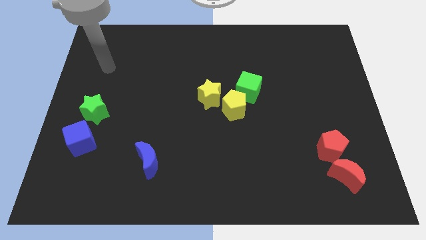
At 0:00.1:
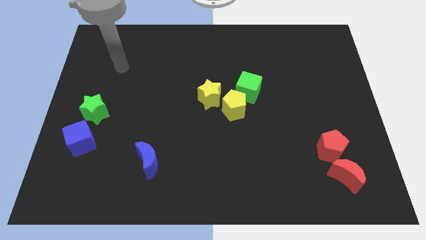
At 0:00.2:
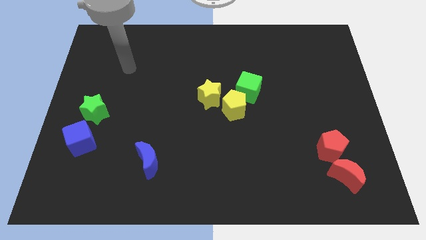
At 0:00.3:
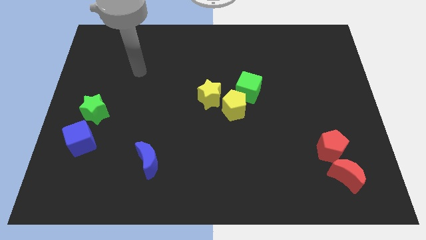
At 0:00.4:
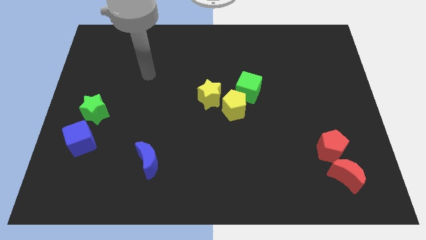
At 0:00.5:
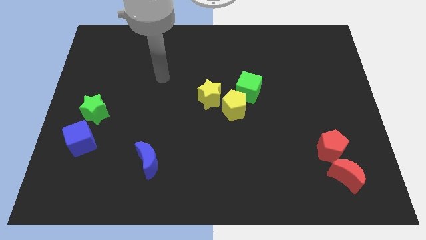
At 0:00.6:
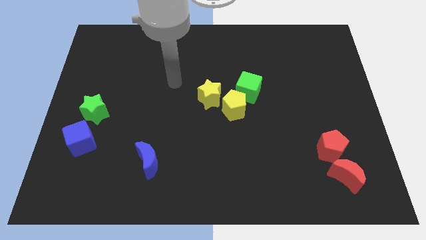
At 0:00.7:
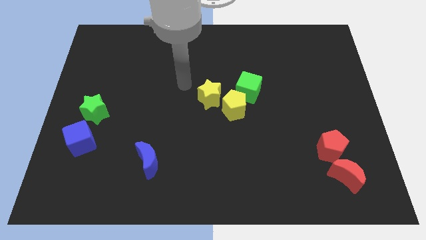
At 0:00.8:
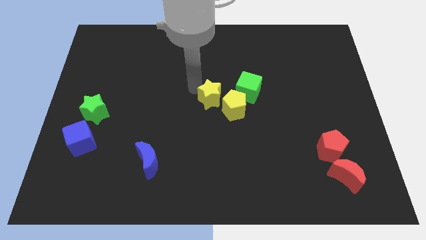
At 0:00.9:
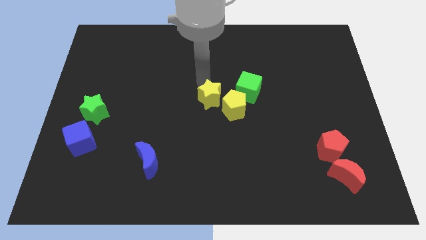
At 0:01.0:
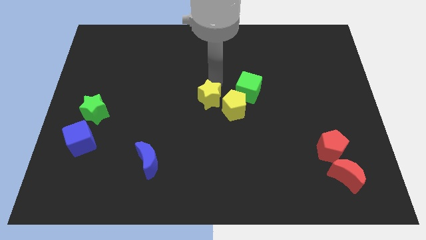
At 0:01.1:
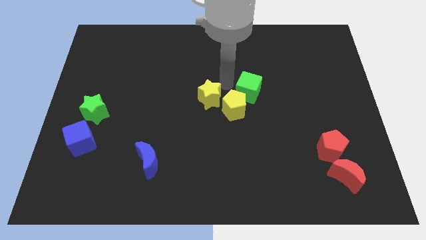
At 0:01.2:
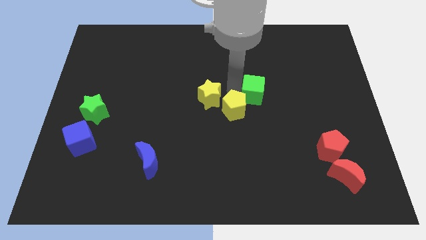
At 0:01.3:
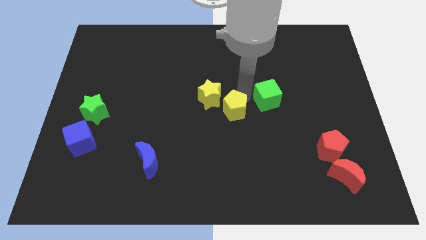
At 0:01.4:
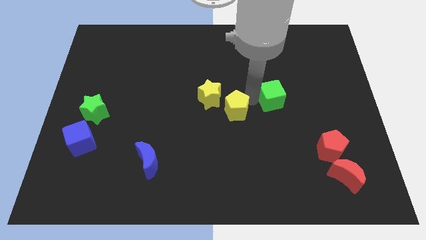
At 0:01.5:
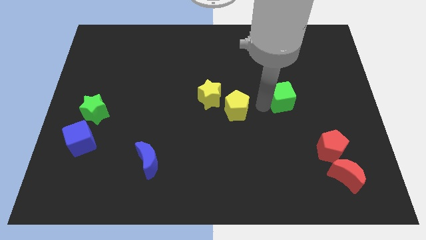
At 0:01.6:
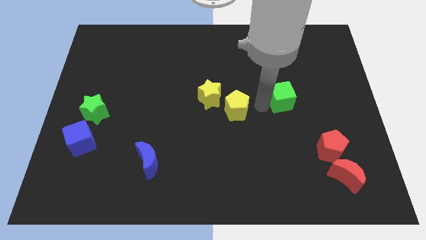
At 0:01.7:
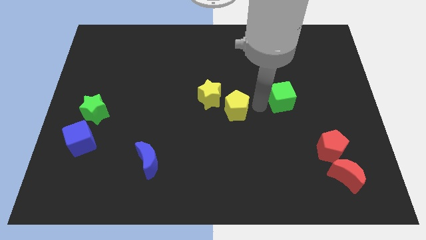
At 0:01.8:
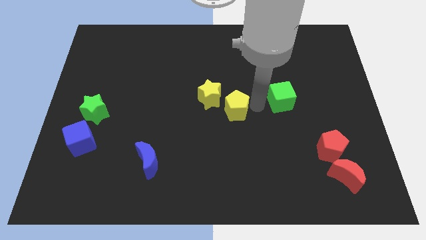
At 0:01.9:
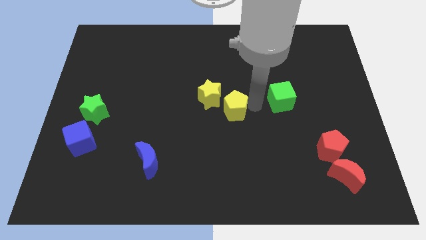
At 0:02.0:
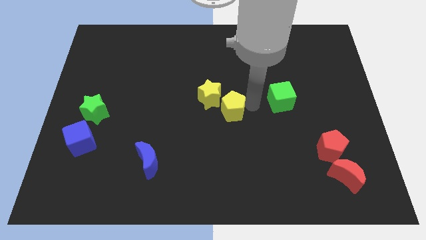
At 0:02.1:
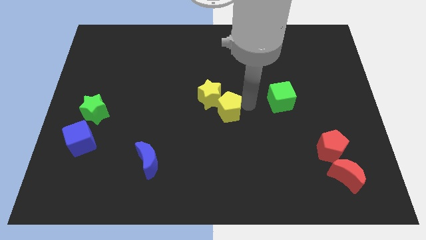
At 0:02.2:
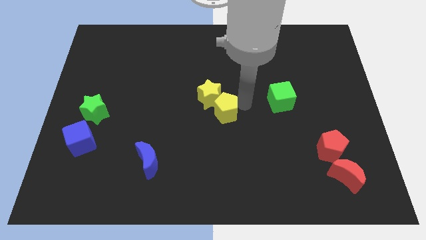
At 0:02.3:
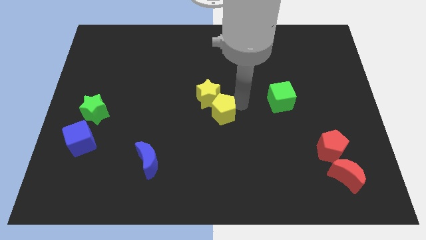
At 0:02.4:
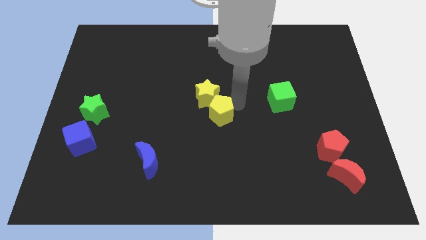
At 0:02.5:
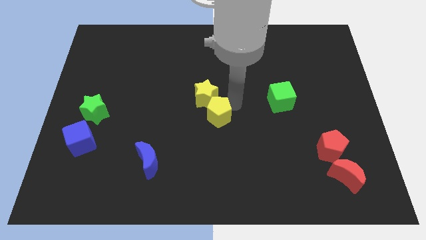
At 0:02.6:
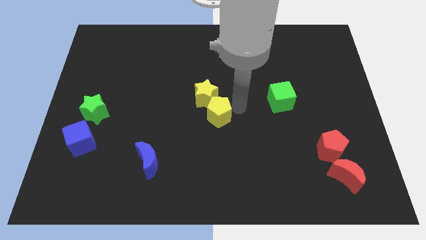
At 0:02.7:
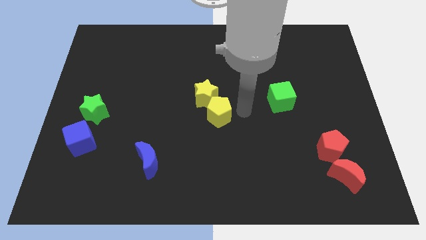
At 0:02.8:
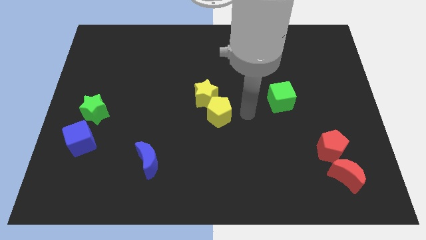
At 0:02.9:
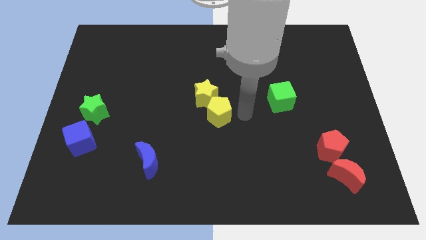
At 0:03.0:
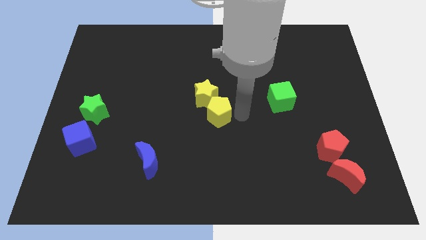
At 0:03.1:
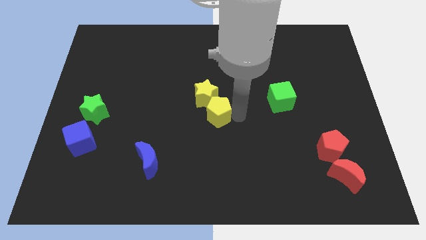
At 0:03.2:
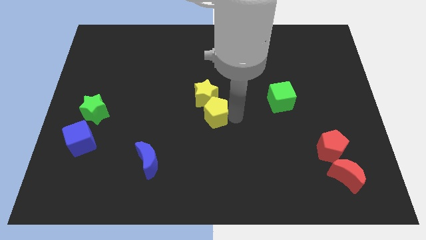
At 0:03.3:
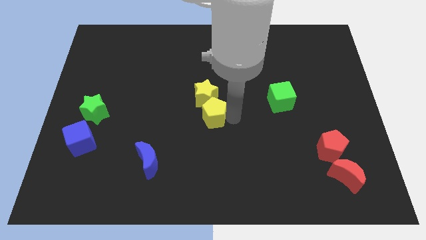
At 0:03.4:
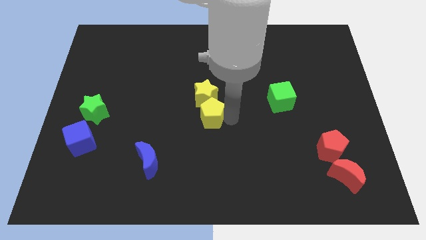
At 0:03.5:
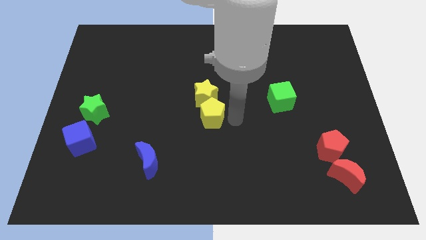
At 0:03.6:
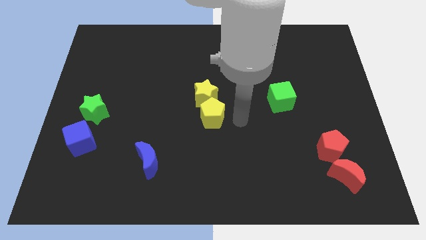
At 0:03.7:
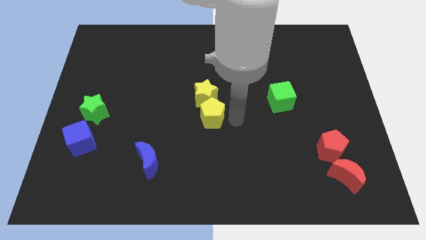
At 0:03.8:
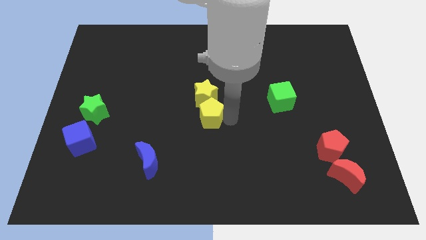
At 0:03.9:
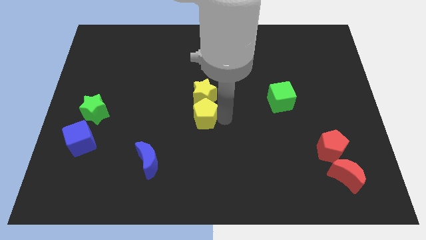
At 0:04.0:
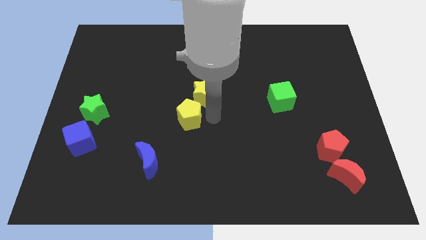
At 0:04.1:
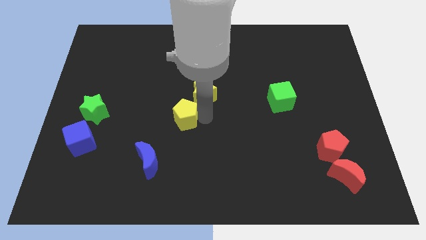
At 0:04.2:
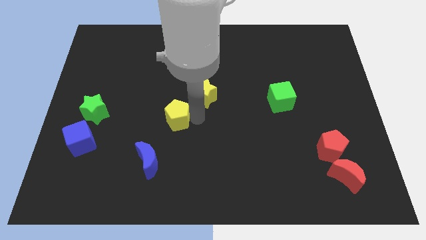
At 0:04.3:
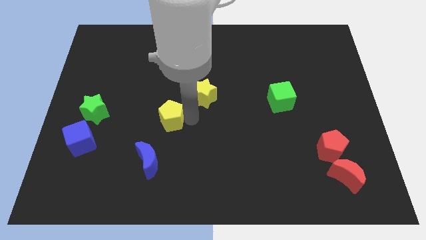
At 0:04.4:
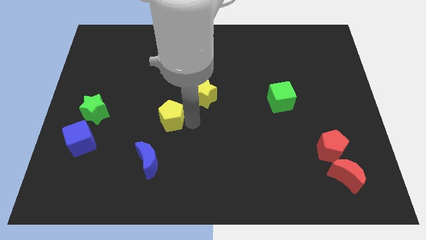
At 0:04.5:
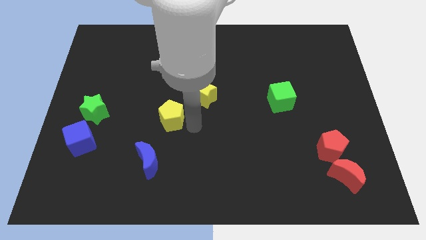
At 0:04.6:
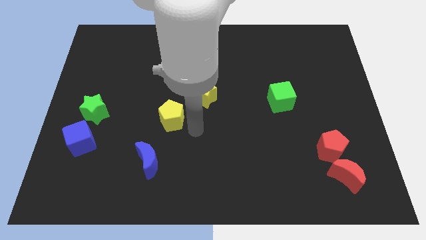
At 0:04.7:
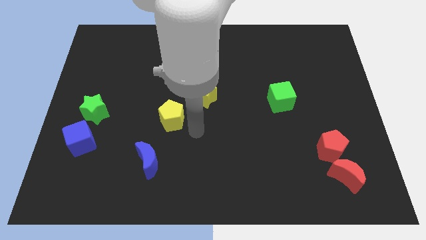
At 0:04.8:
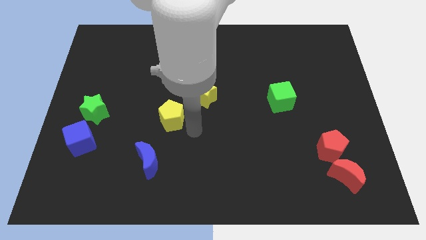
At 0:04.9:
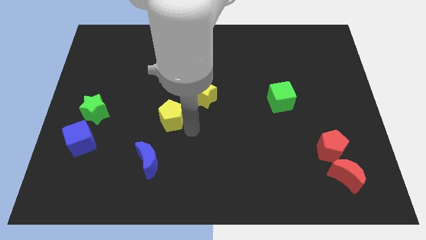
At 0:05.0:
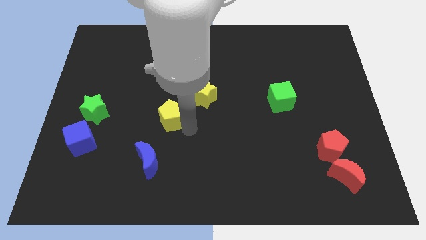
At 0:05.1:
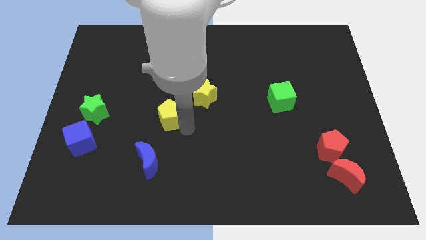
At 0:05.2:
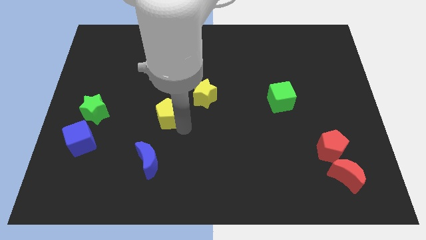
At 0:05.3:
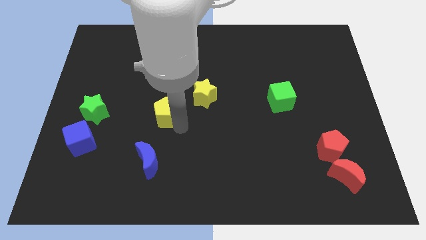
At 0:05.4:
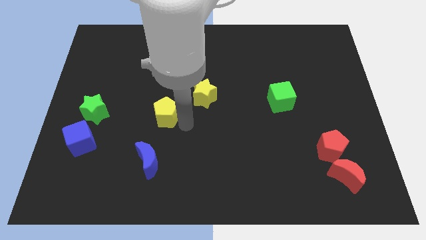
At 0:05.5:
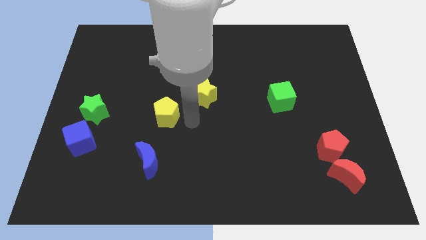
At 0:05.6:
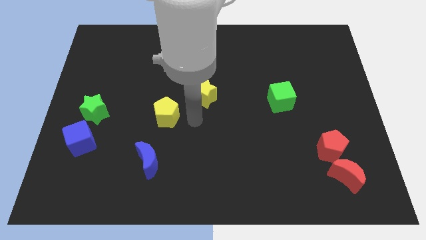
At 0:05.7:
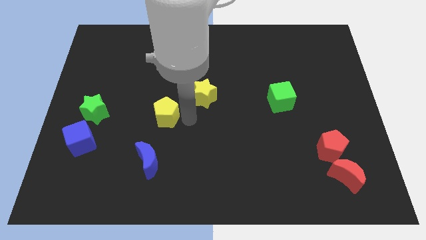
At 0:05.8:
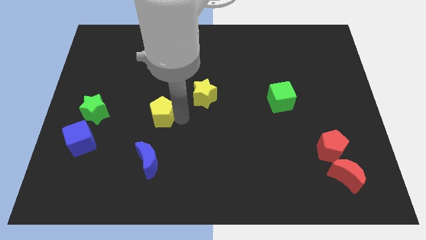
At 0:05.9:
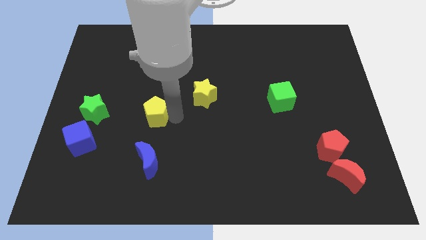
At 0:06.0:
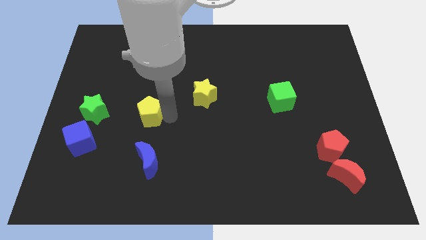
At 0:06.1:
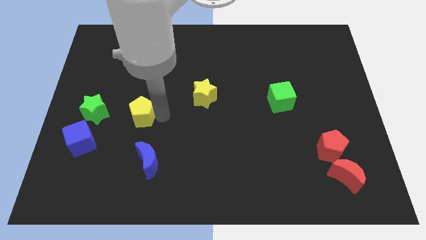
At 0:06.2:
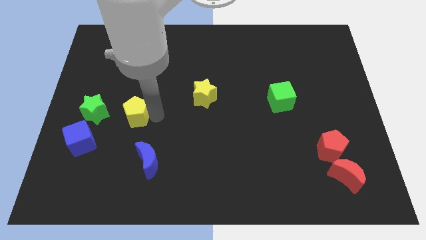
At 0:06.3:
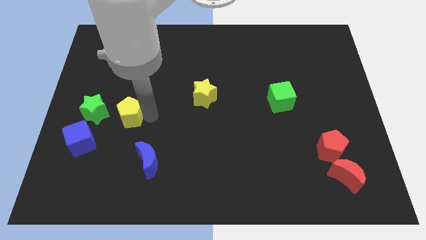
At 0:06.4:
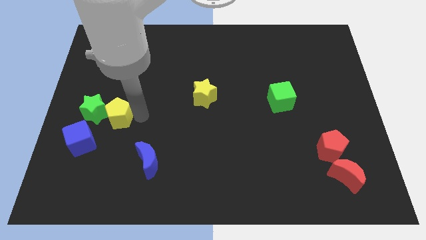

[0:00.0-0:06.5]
put the yellow pentagon next to the green star
